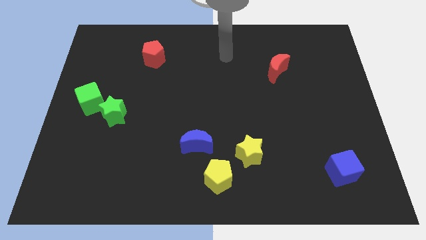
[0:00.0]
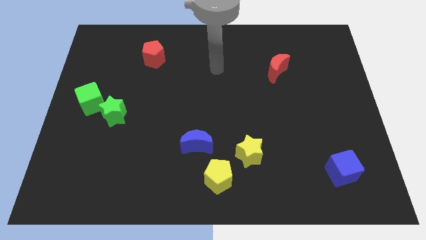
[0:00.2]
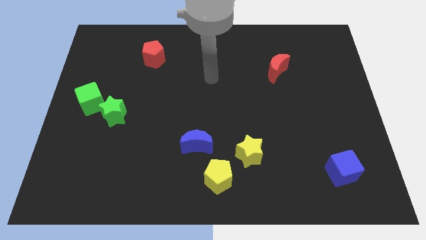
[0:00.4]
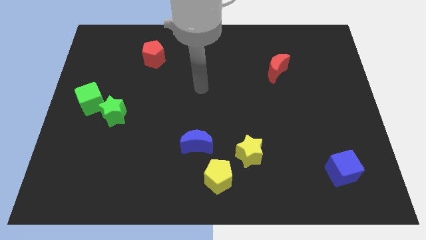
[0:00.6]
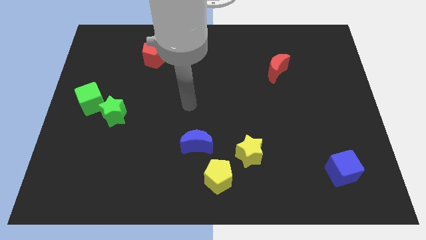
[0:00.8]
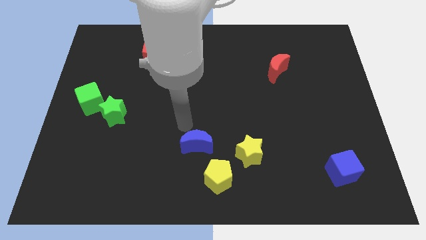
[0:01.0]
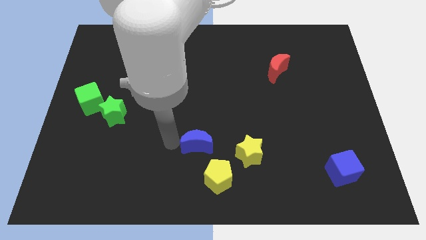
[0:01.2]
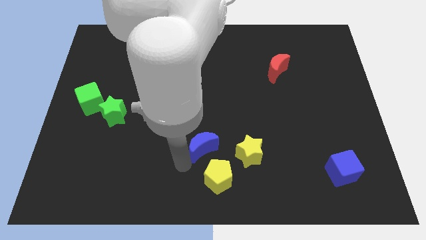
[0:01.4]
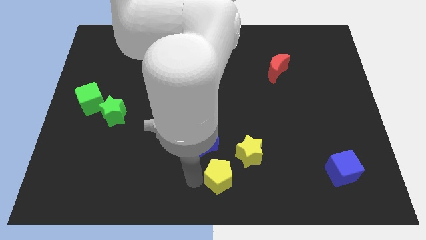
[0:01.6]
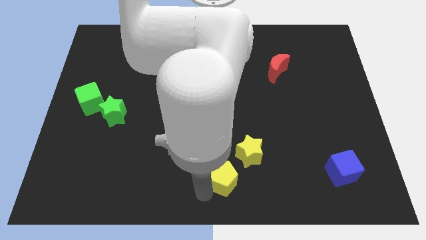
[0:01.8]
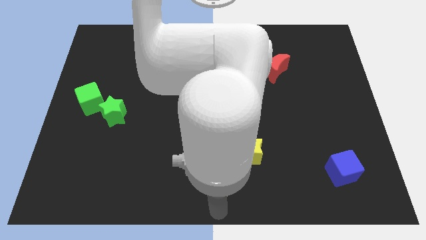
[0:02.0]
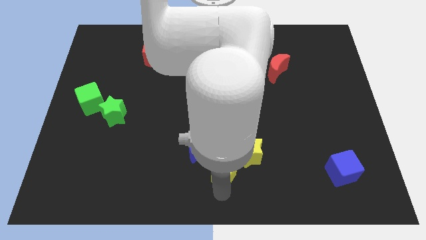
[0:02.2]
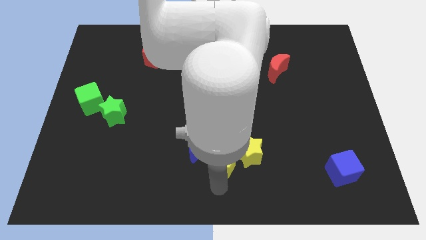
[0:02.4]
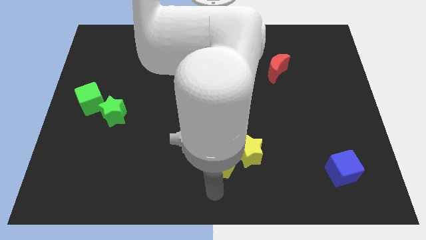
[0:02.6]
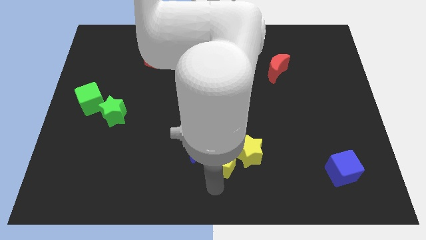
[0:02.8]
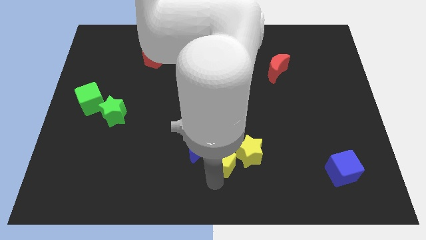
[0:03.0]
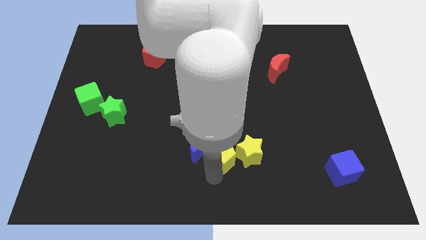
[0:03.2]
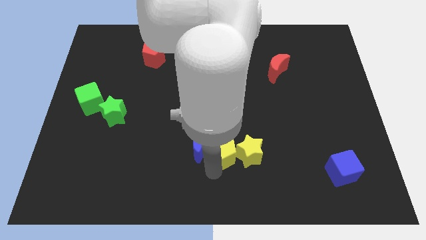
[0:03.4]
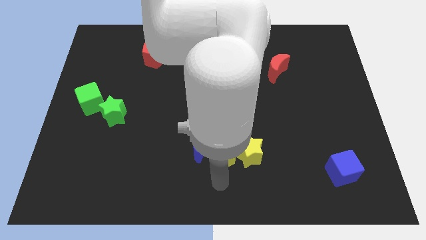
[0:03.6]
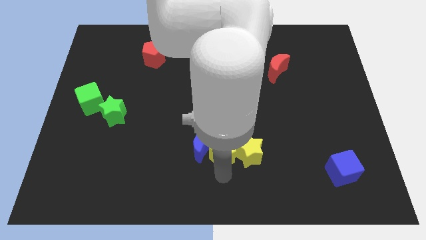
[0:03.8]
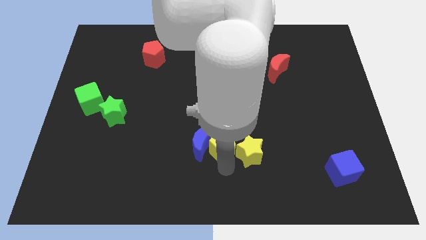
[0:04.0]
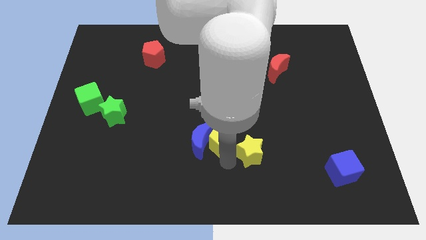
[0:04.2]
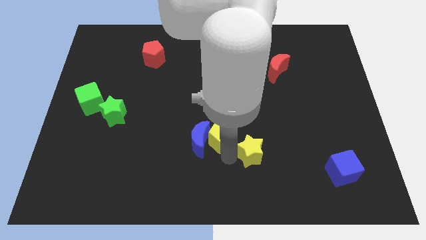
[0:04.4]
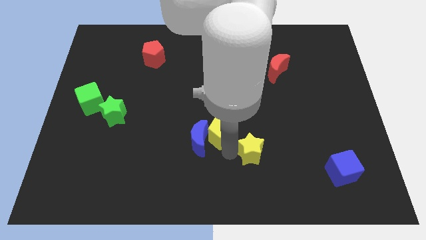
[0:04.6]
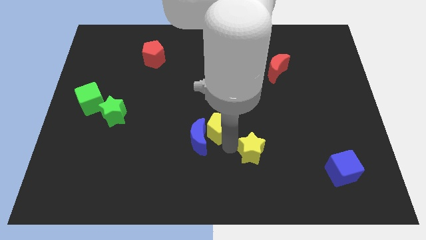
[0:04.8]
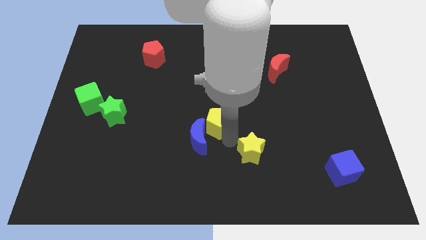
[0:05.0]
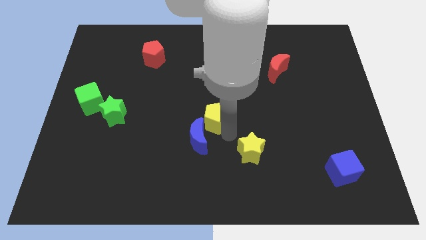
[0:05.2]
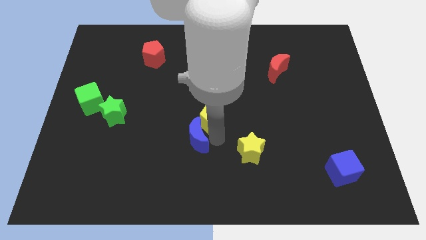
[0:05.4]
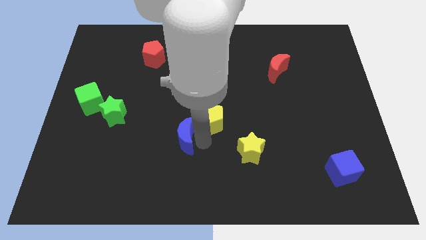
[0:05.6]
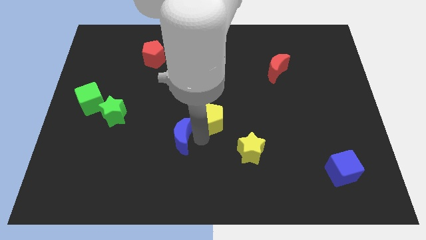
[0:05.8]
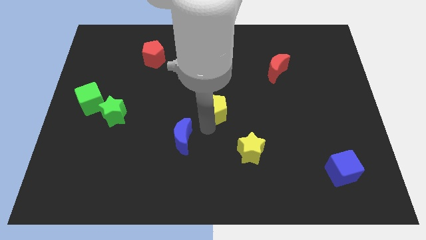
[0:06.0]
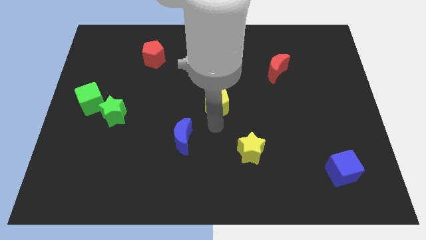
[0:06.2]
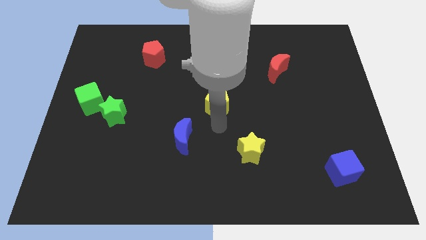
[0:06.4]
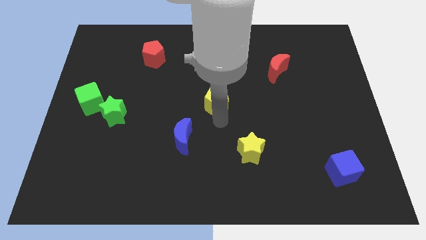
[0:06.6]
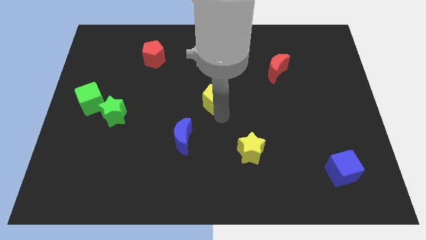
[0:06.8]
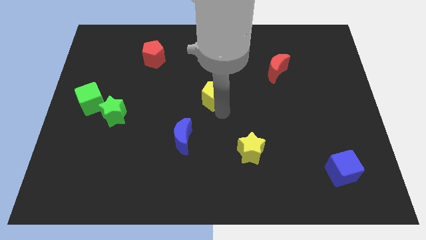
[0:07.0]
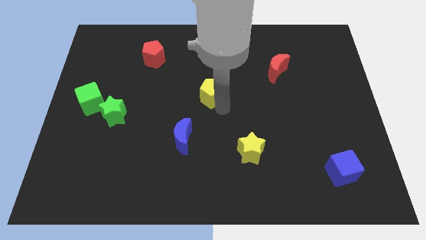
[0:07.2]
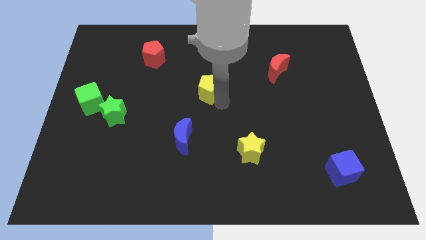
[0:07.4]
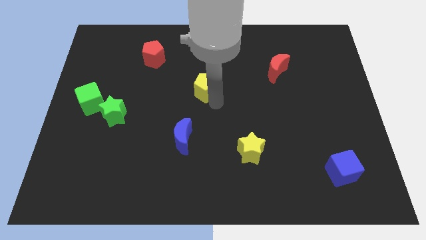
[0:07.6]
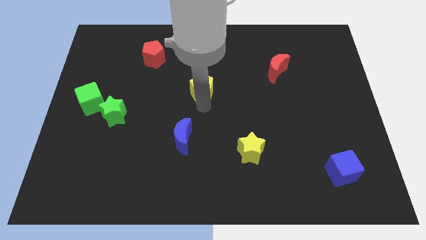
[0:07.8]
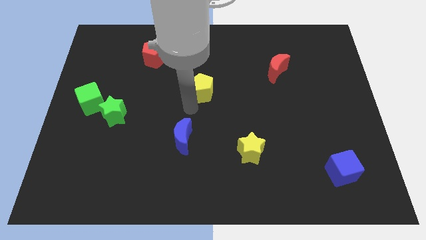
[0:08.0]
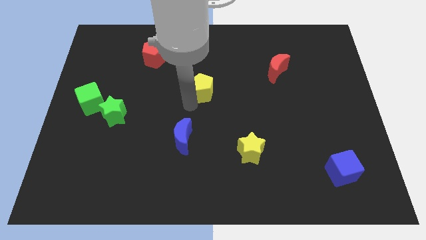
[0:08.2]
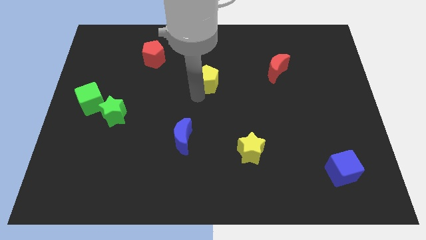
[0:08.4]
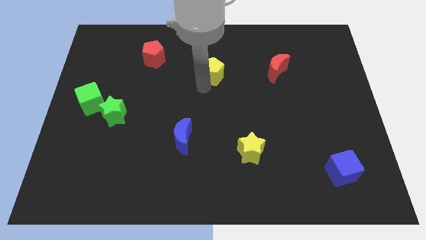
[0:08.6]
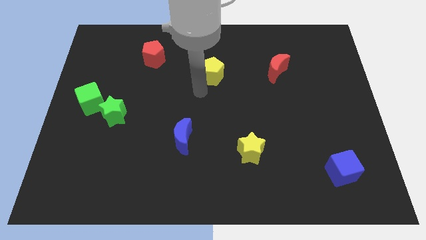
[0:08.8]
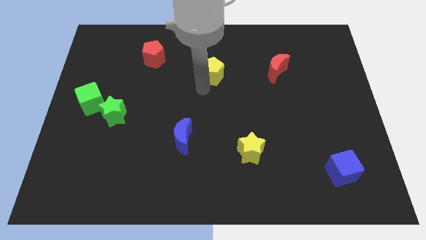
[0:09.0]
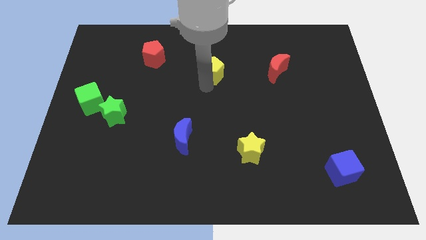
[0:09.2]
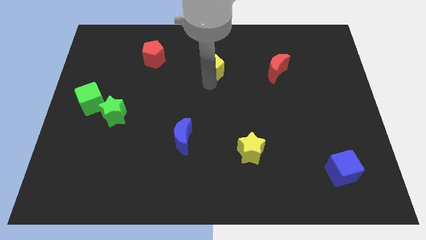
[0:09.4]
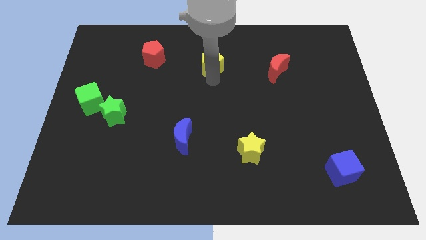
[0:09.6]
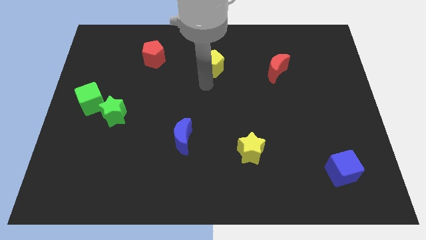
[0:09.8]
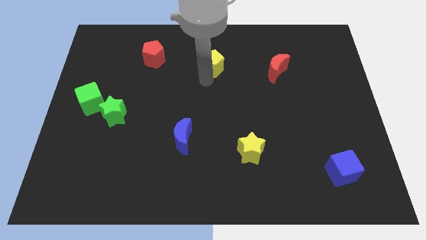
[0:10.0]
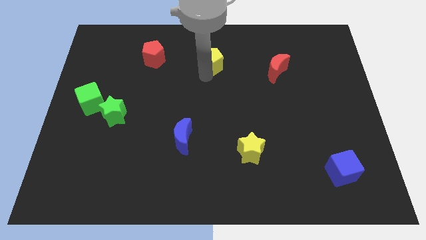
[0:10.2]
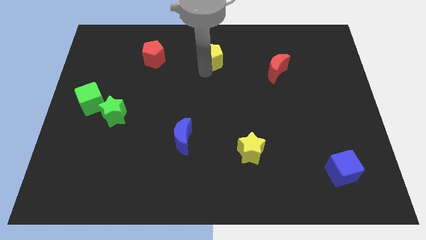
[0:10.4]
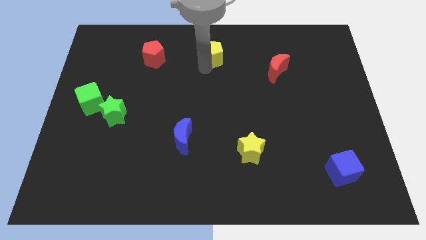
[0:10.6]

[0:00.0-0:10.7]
push the yellow pentagon to the towards your base

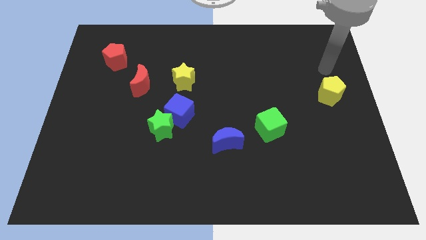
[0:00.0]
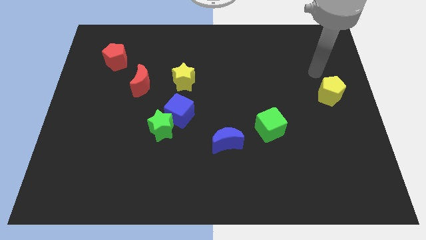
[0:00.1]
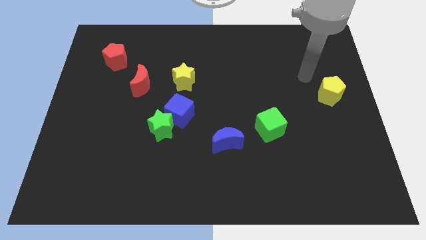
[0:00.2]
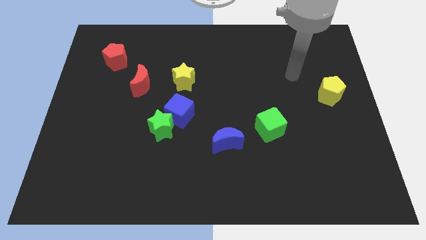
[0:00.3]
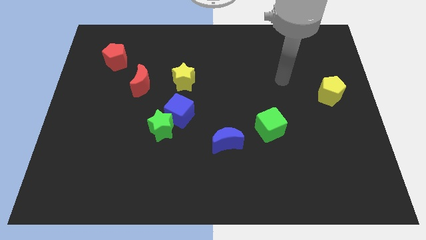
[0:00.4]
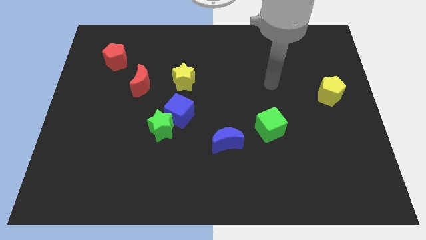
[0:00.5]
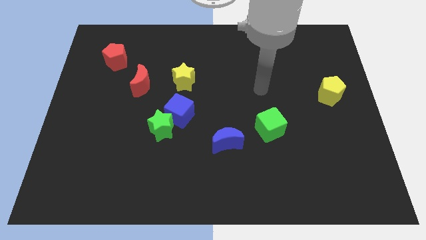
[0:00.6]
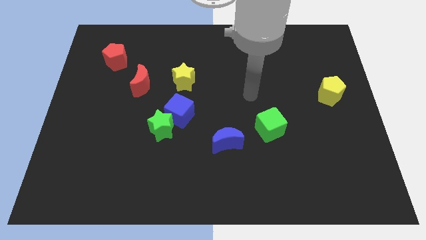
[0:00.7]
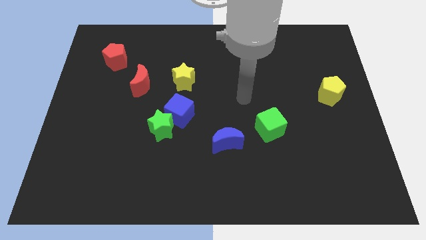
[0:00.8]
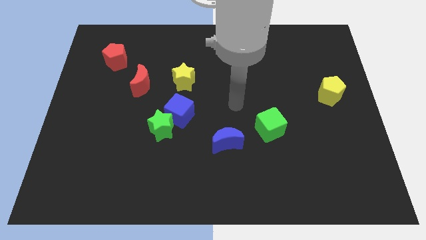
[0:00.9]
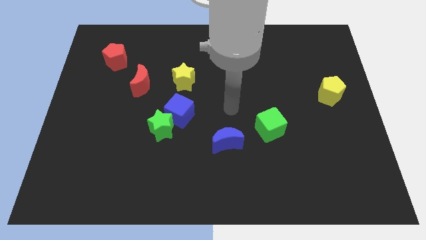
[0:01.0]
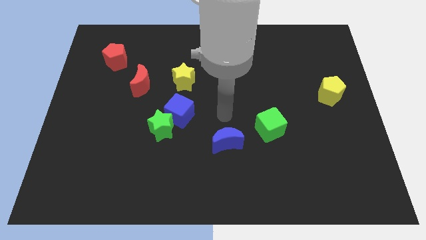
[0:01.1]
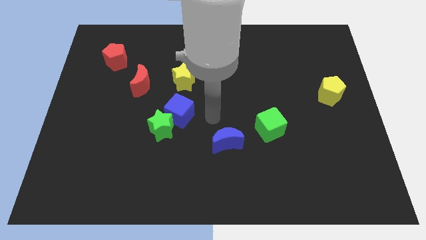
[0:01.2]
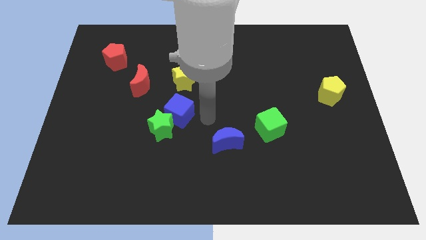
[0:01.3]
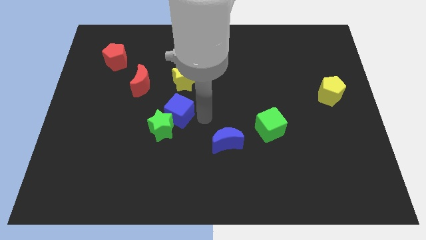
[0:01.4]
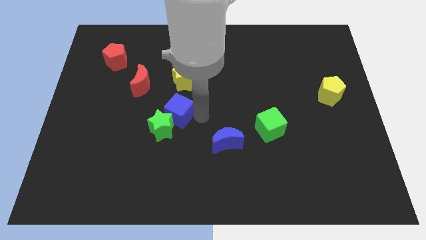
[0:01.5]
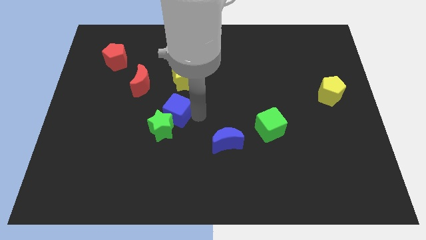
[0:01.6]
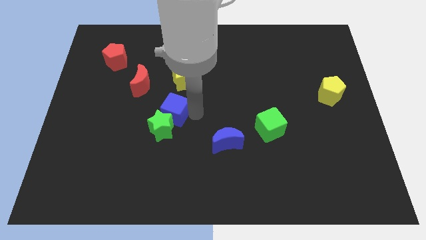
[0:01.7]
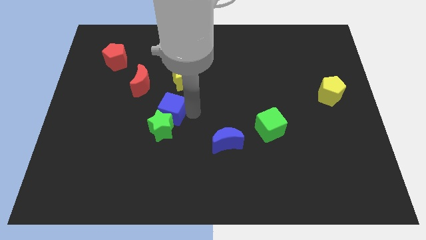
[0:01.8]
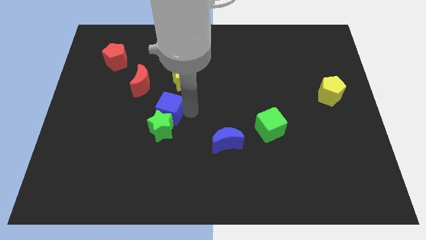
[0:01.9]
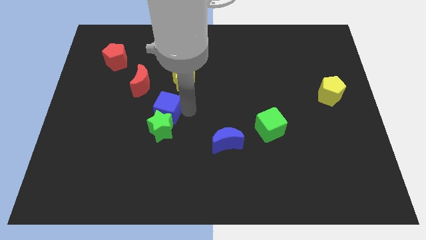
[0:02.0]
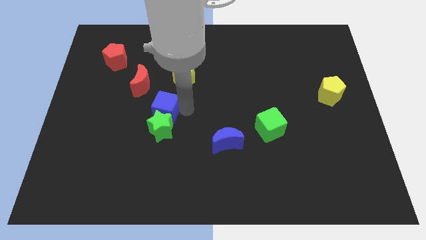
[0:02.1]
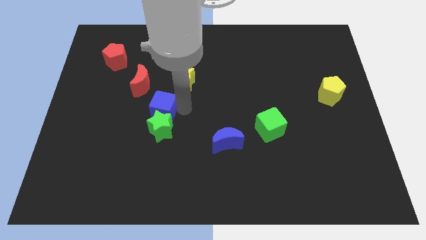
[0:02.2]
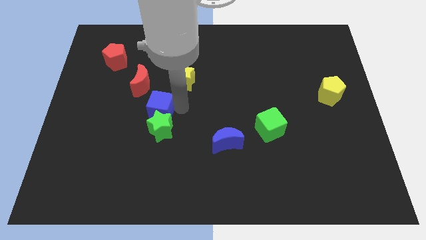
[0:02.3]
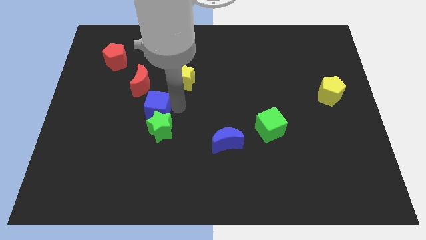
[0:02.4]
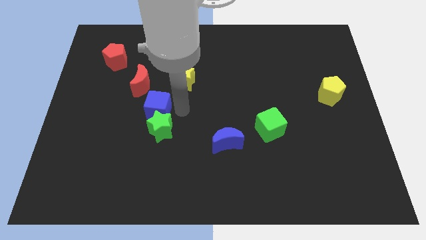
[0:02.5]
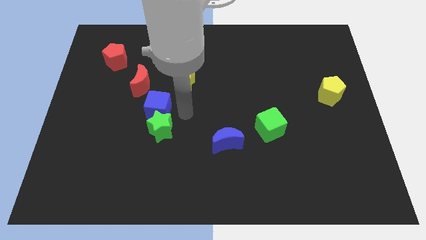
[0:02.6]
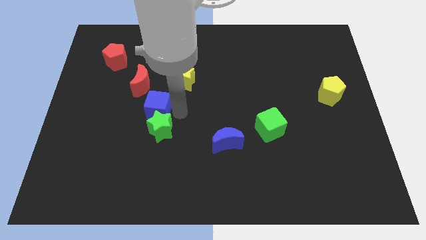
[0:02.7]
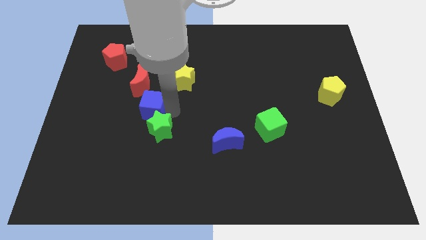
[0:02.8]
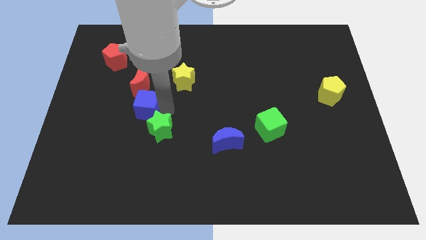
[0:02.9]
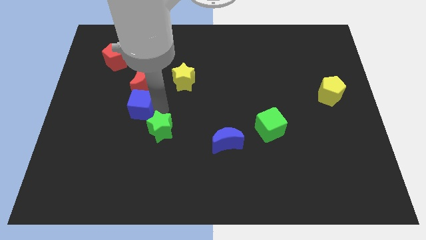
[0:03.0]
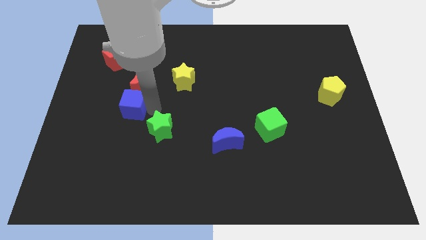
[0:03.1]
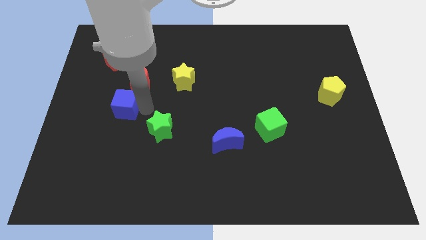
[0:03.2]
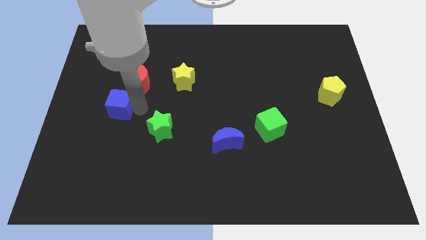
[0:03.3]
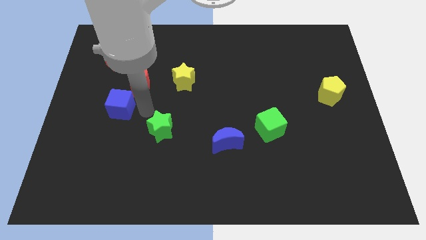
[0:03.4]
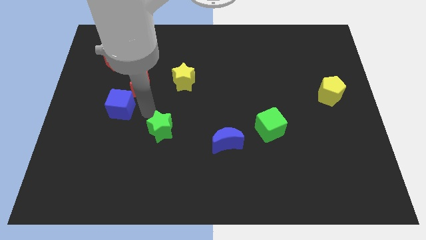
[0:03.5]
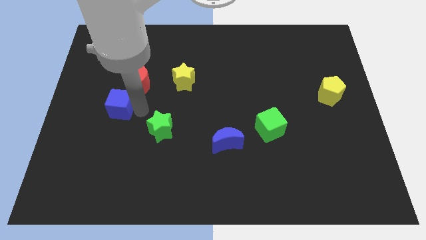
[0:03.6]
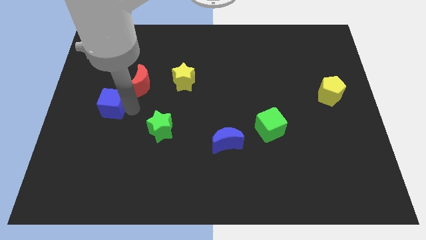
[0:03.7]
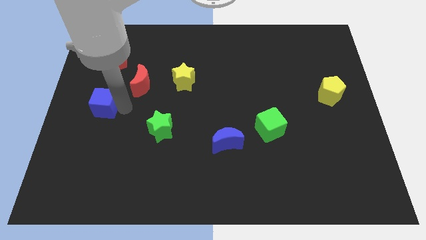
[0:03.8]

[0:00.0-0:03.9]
push the blue cube to the left side
